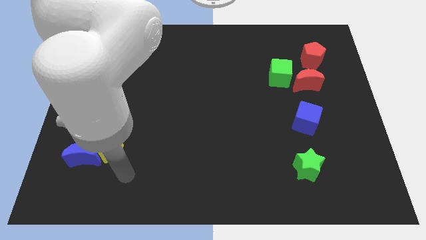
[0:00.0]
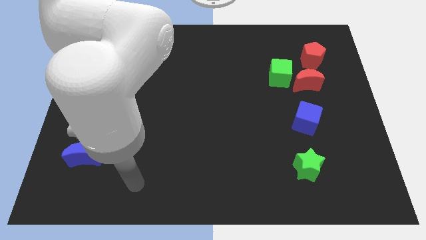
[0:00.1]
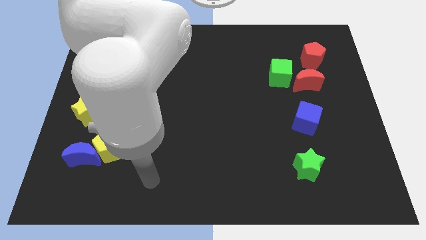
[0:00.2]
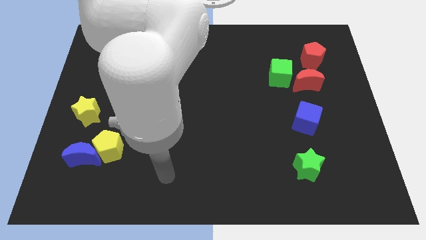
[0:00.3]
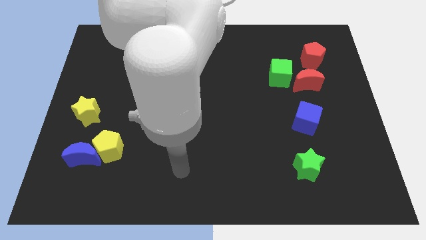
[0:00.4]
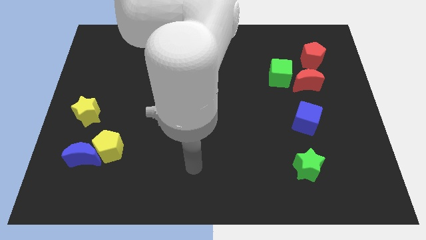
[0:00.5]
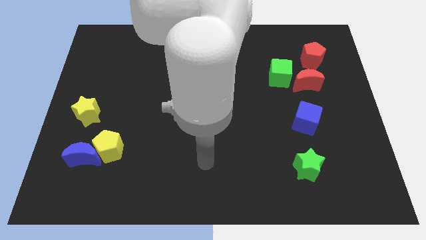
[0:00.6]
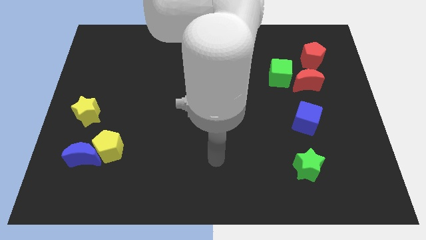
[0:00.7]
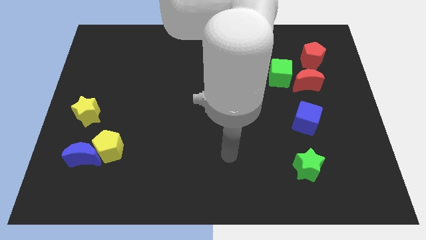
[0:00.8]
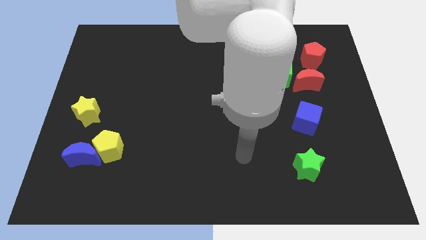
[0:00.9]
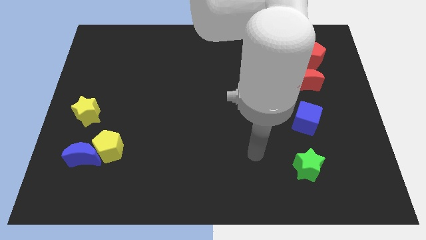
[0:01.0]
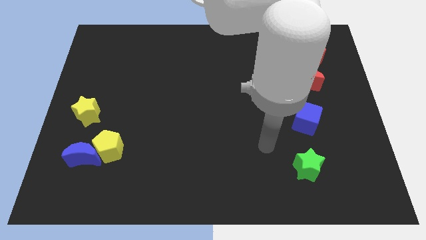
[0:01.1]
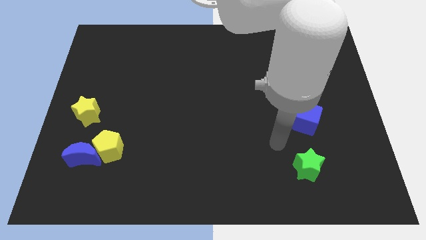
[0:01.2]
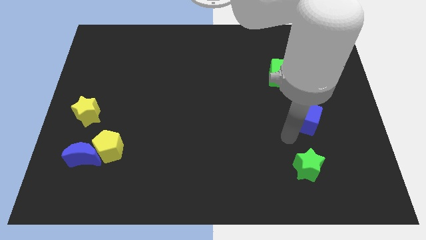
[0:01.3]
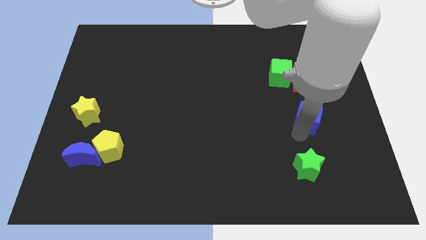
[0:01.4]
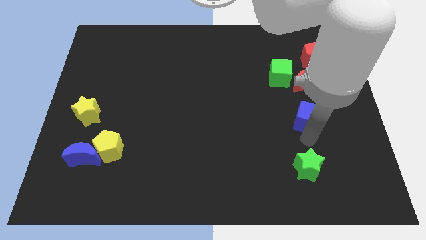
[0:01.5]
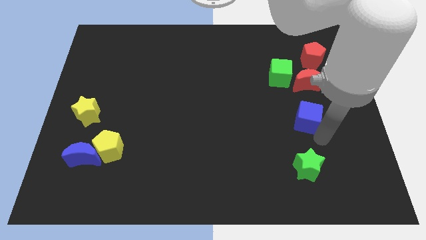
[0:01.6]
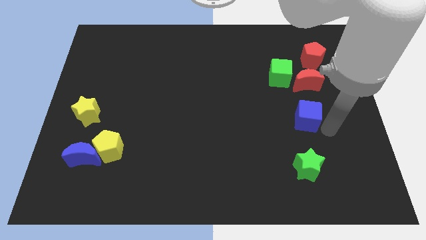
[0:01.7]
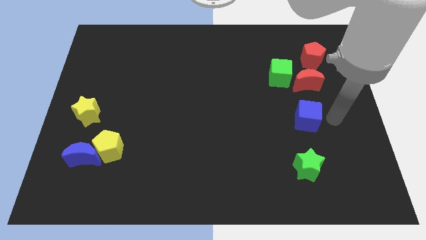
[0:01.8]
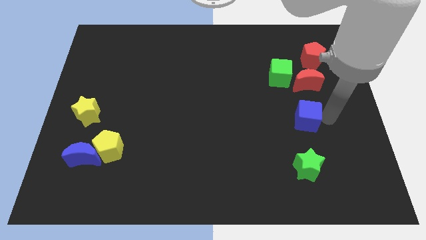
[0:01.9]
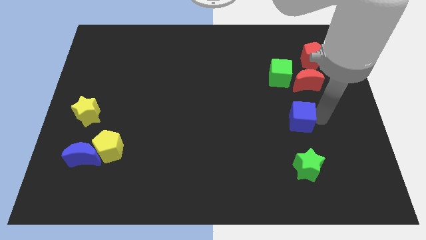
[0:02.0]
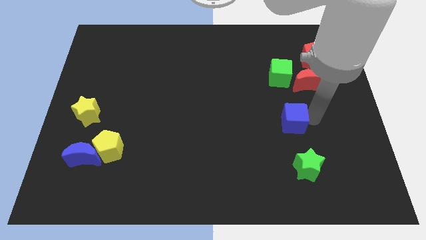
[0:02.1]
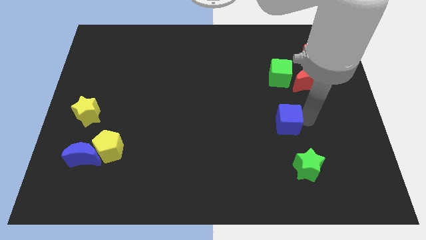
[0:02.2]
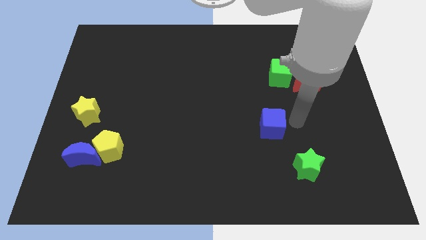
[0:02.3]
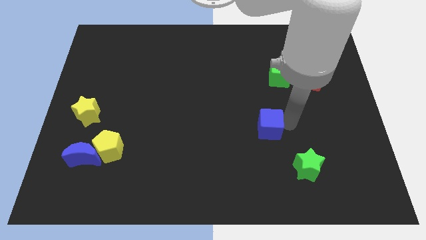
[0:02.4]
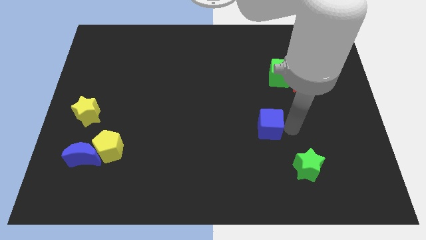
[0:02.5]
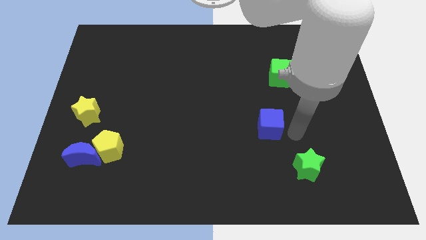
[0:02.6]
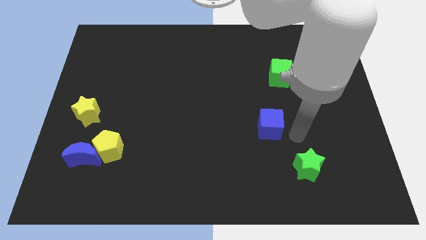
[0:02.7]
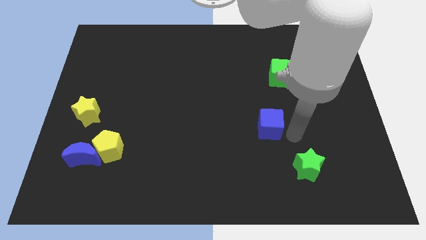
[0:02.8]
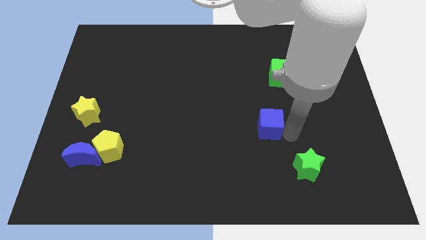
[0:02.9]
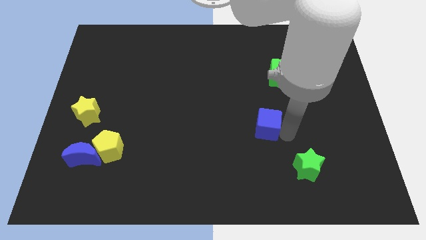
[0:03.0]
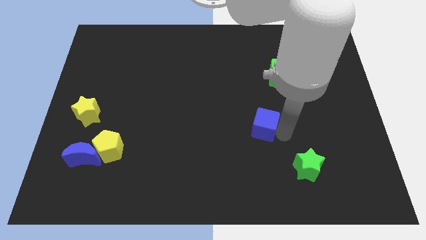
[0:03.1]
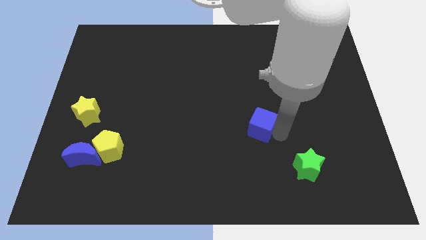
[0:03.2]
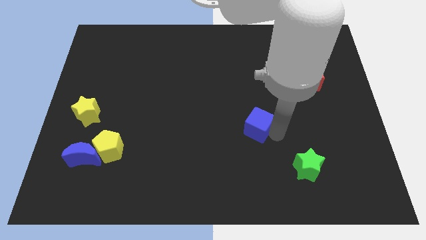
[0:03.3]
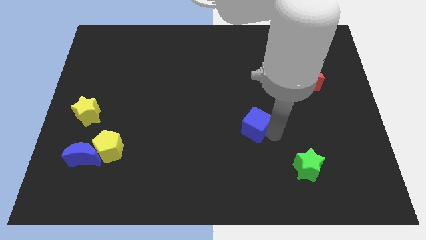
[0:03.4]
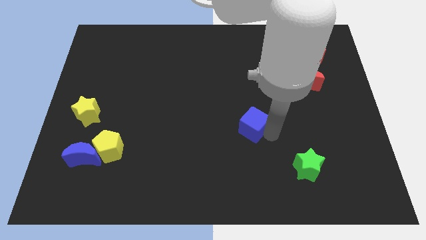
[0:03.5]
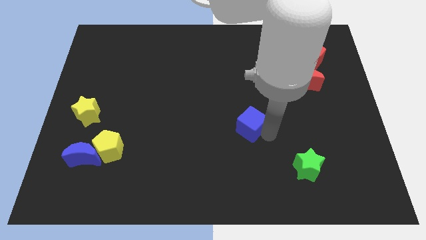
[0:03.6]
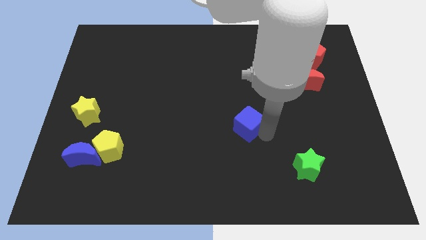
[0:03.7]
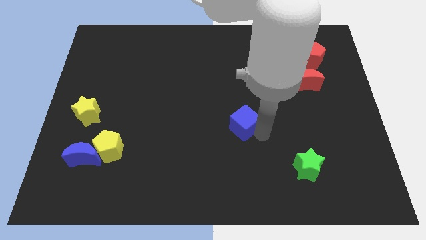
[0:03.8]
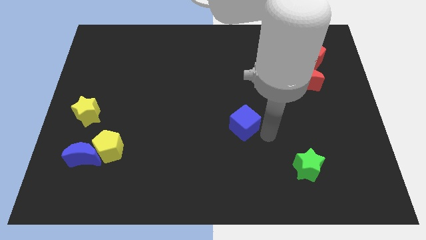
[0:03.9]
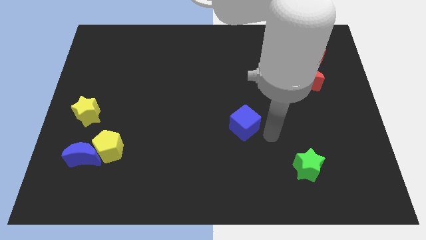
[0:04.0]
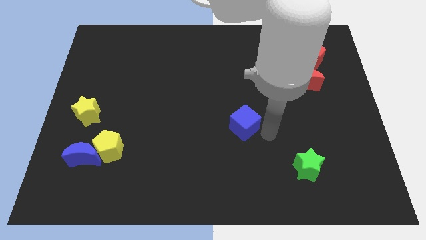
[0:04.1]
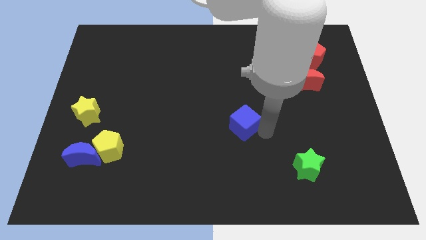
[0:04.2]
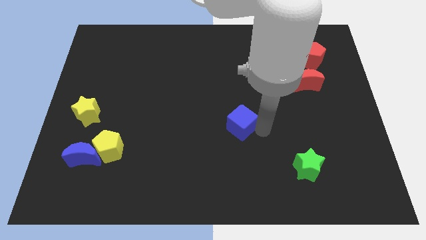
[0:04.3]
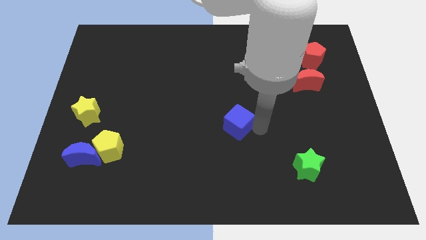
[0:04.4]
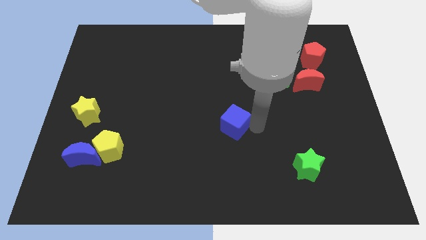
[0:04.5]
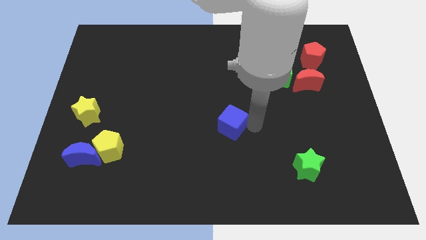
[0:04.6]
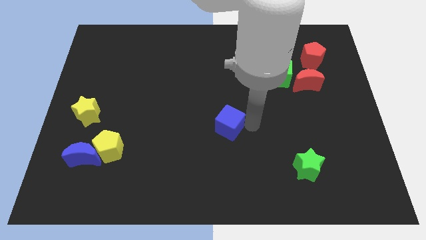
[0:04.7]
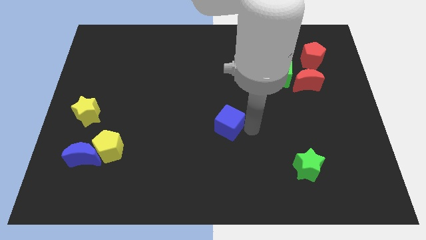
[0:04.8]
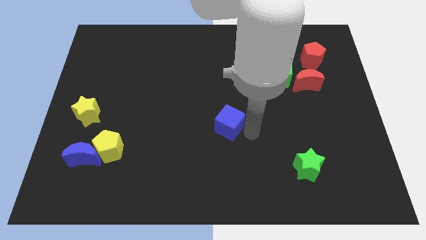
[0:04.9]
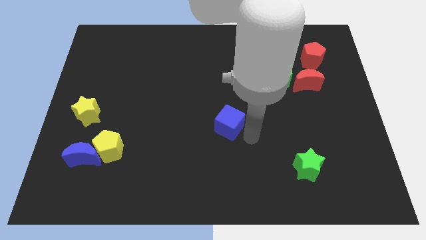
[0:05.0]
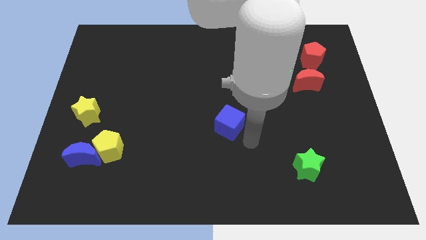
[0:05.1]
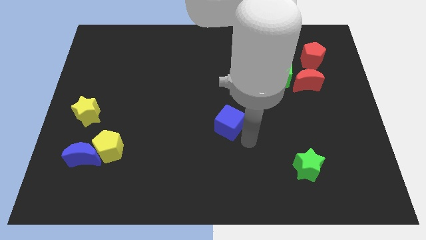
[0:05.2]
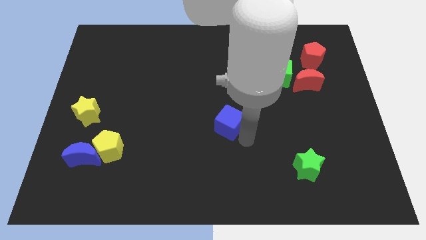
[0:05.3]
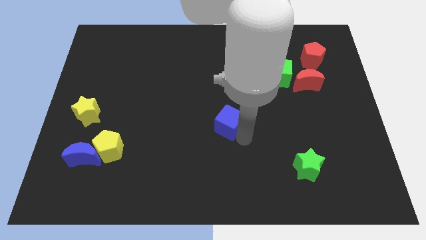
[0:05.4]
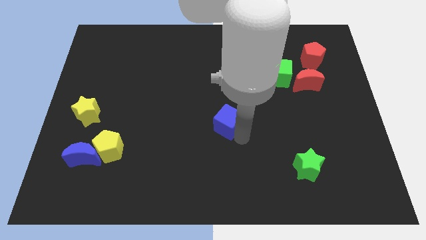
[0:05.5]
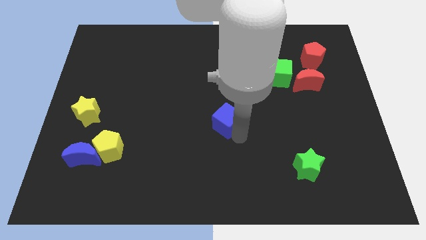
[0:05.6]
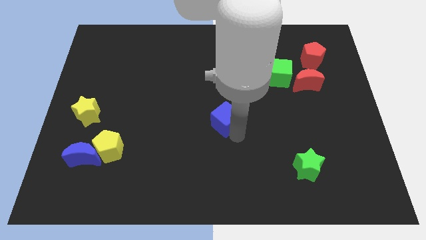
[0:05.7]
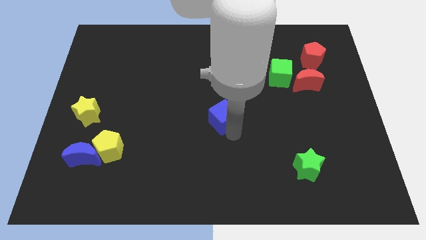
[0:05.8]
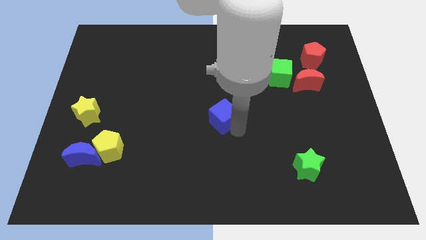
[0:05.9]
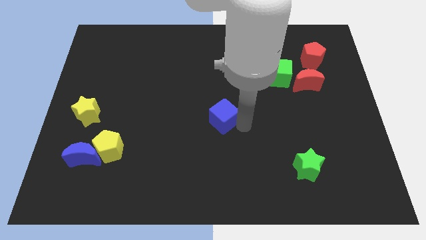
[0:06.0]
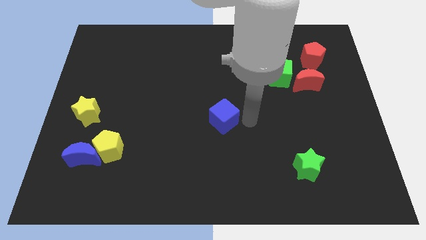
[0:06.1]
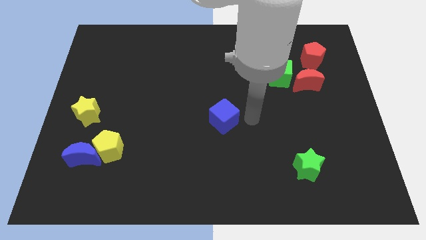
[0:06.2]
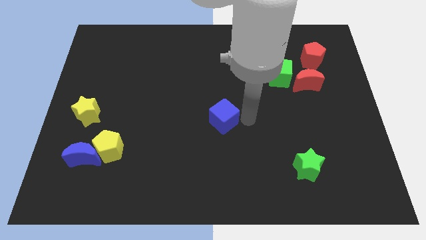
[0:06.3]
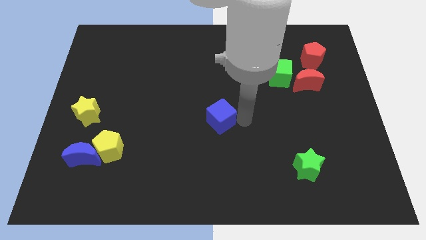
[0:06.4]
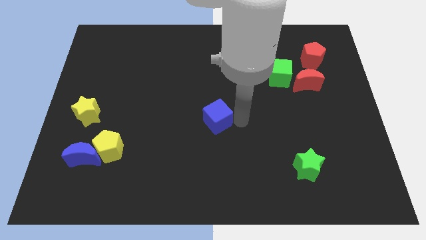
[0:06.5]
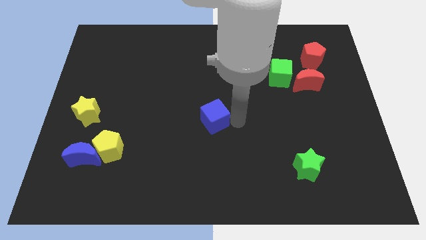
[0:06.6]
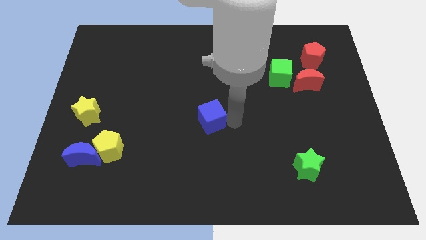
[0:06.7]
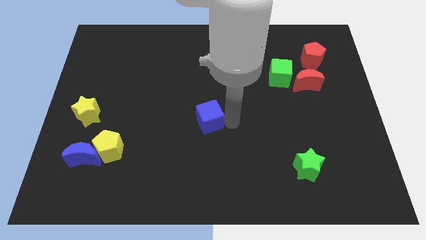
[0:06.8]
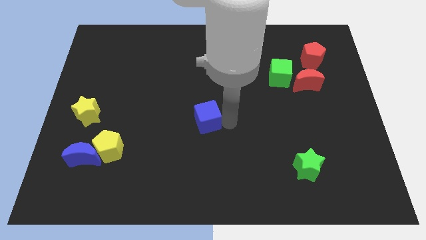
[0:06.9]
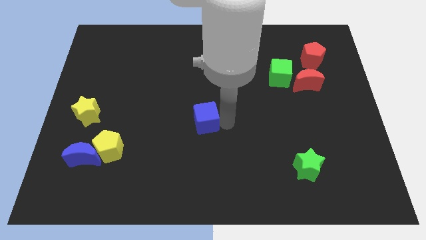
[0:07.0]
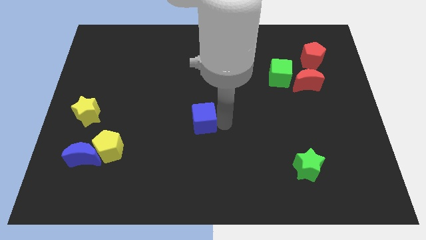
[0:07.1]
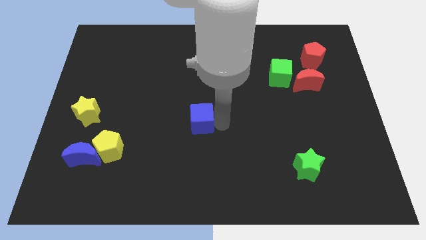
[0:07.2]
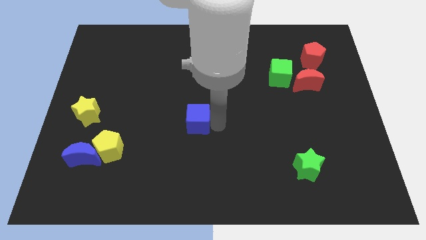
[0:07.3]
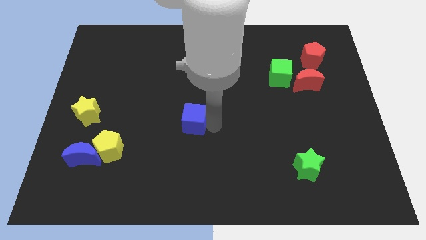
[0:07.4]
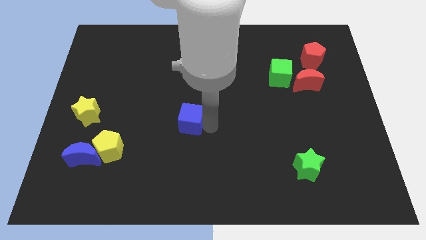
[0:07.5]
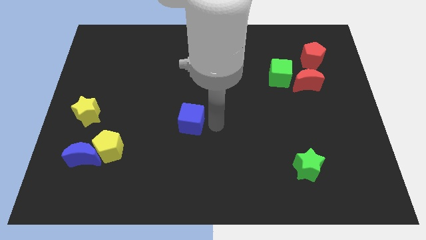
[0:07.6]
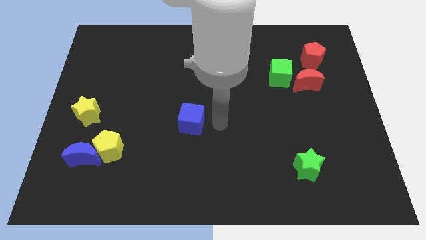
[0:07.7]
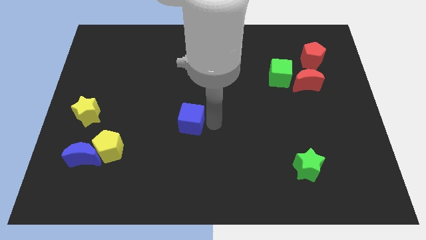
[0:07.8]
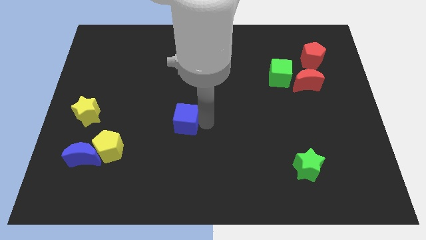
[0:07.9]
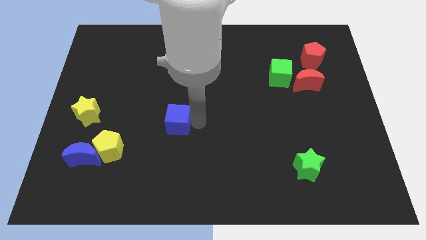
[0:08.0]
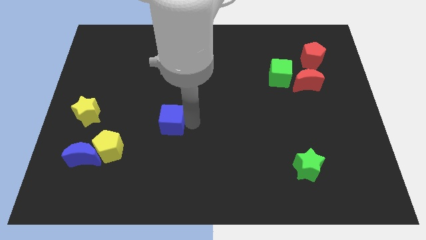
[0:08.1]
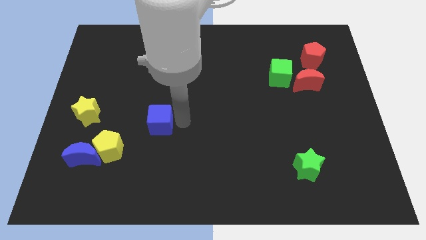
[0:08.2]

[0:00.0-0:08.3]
push the blue cube to the top right side of the yellow pentagon
